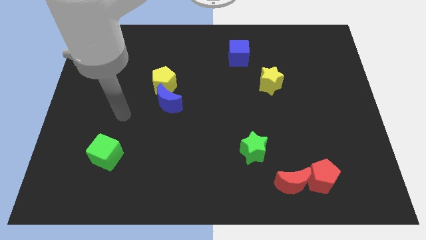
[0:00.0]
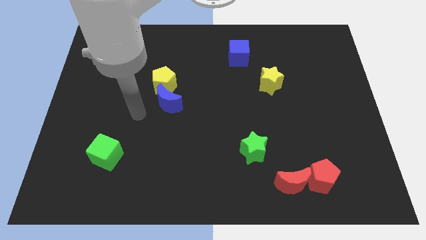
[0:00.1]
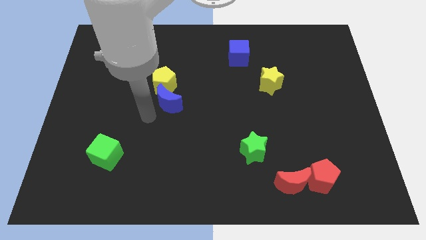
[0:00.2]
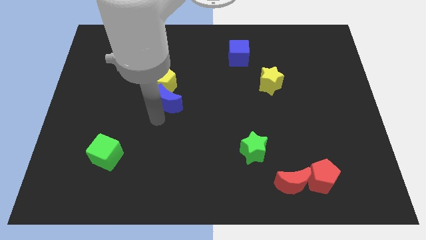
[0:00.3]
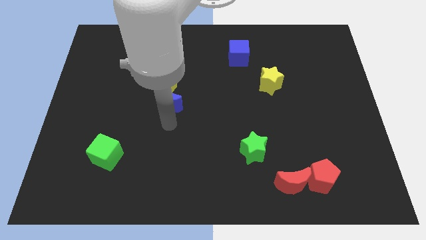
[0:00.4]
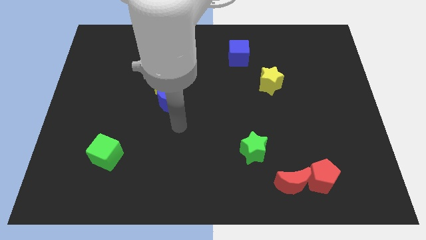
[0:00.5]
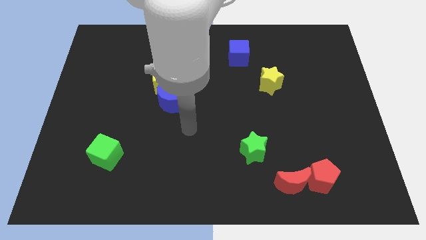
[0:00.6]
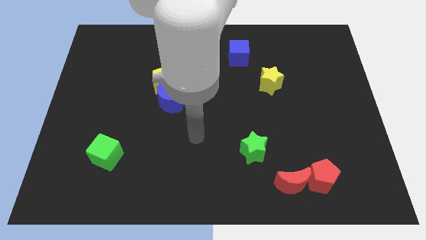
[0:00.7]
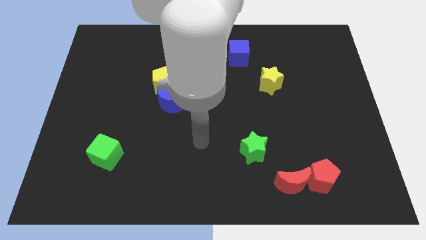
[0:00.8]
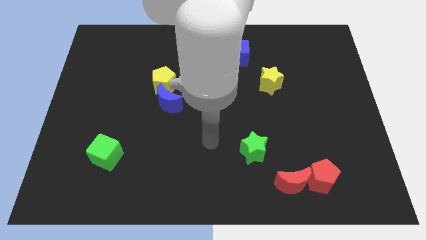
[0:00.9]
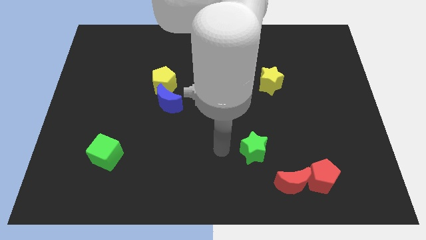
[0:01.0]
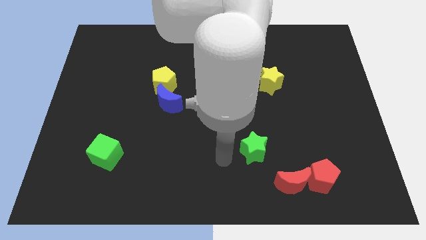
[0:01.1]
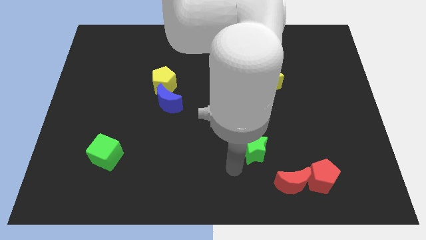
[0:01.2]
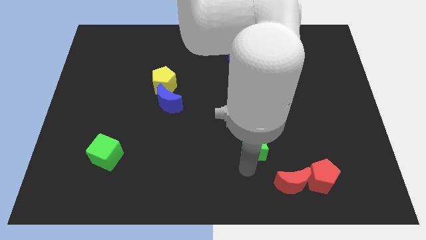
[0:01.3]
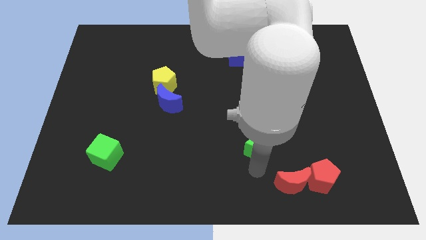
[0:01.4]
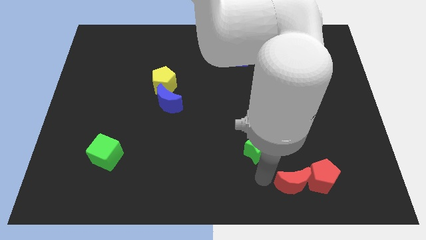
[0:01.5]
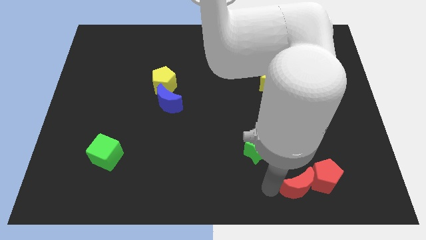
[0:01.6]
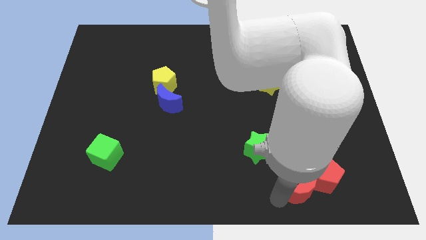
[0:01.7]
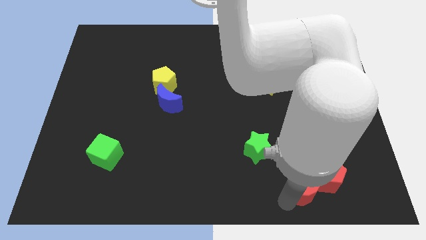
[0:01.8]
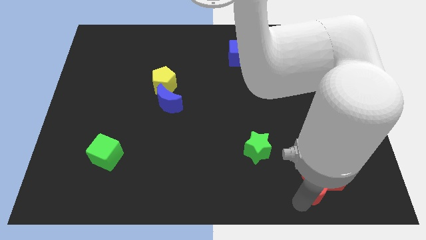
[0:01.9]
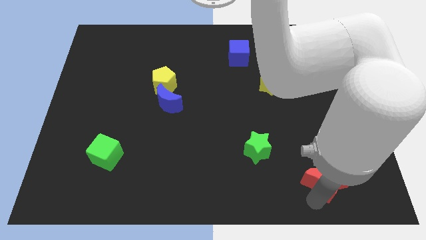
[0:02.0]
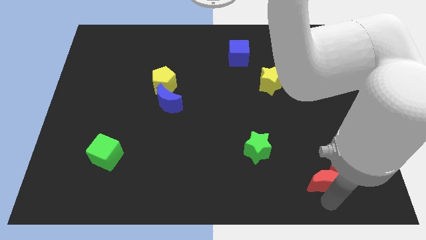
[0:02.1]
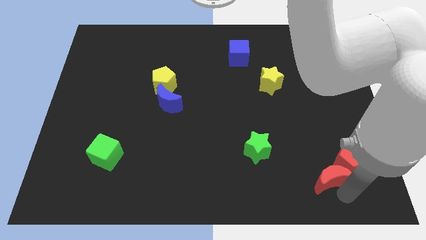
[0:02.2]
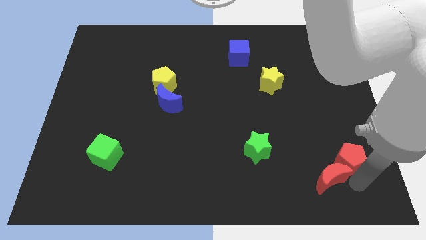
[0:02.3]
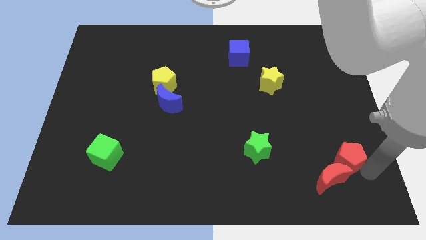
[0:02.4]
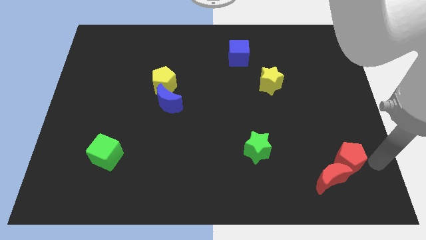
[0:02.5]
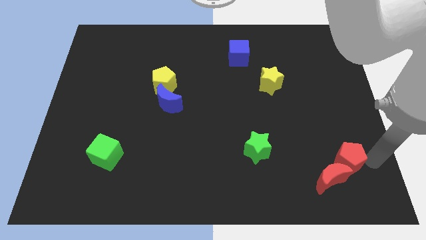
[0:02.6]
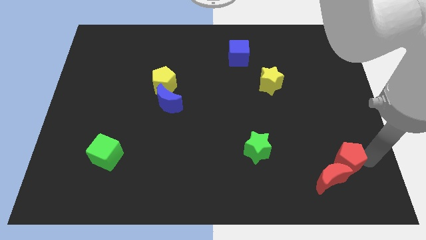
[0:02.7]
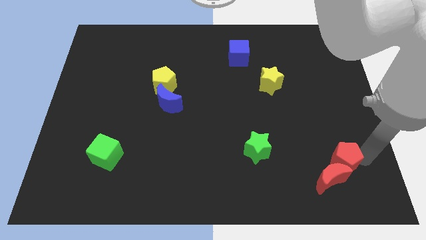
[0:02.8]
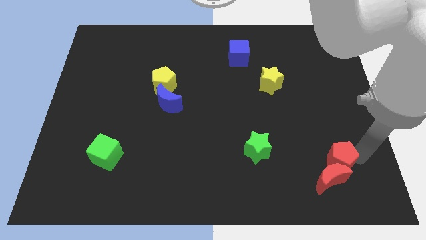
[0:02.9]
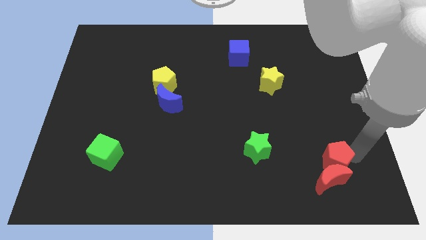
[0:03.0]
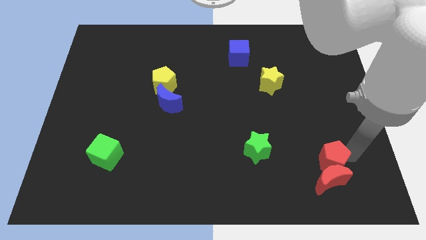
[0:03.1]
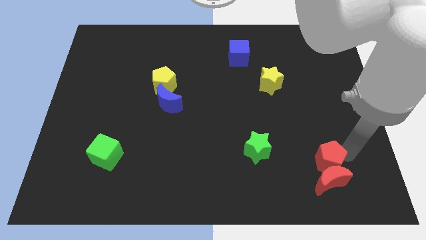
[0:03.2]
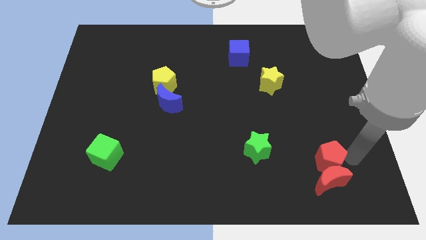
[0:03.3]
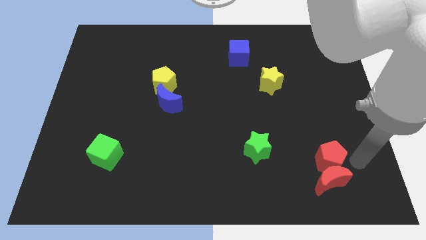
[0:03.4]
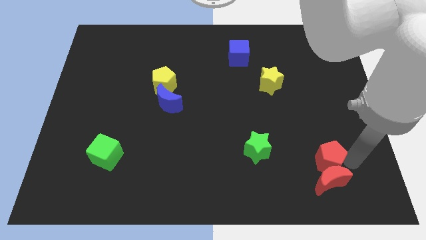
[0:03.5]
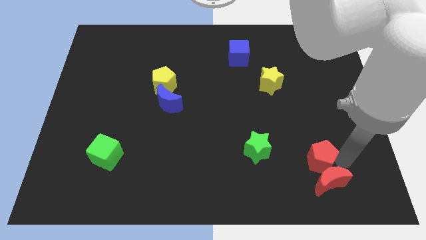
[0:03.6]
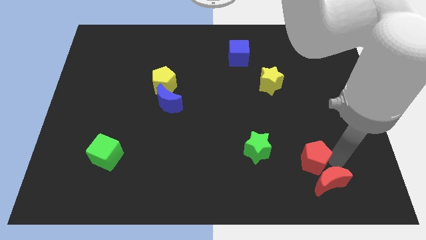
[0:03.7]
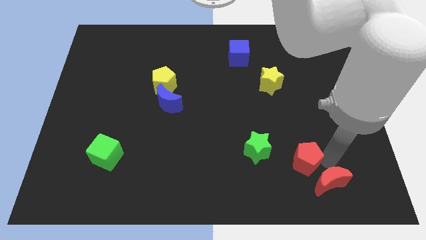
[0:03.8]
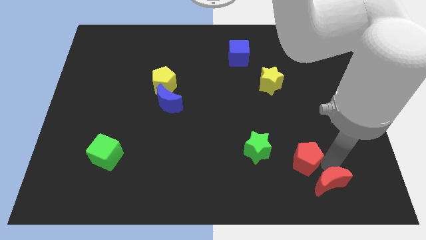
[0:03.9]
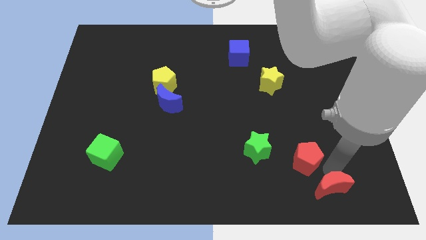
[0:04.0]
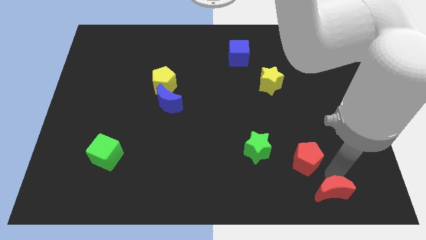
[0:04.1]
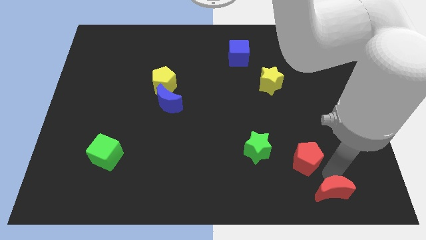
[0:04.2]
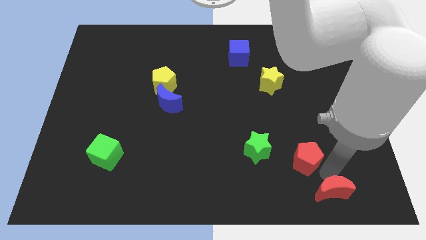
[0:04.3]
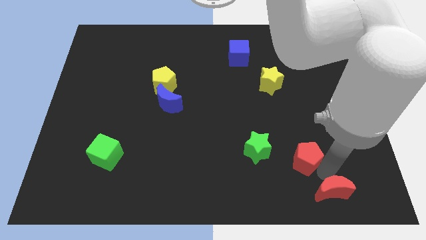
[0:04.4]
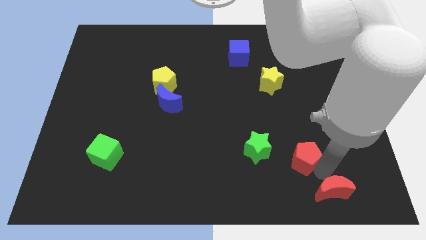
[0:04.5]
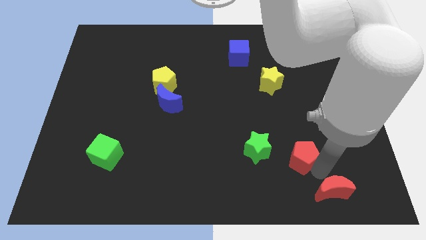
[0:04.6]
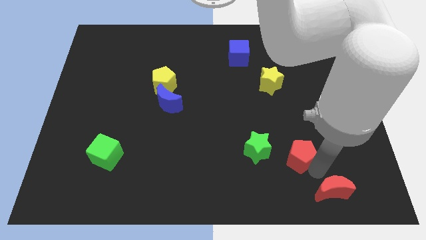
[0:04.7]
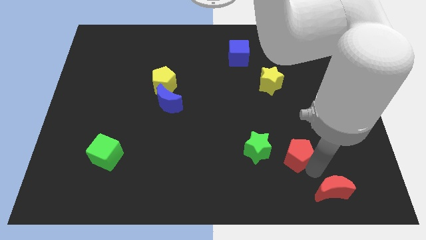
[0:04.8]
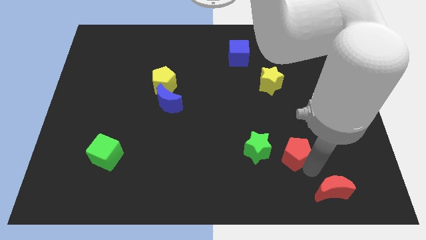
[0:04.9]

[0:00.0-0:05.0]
push the red pentagon somewhat upwards and left diagonally

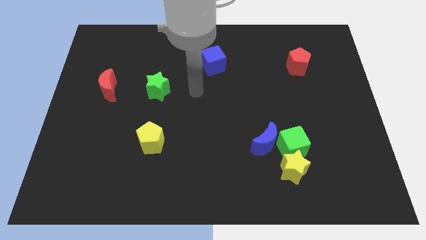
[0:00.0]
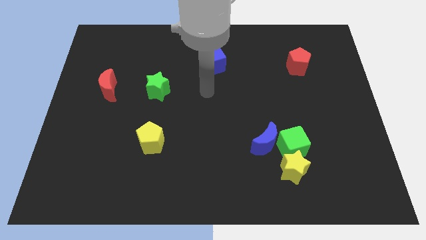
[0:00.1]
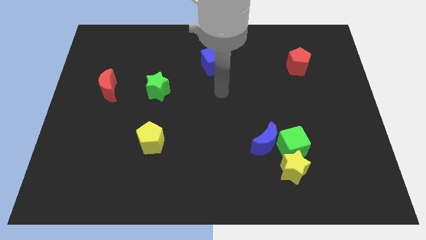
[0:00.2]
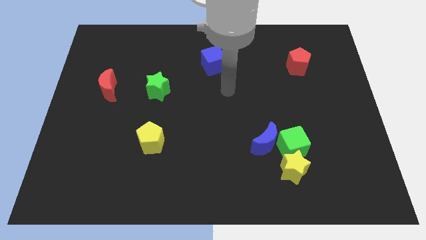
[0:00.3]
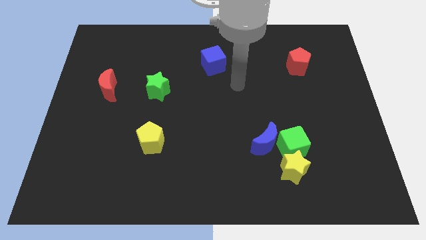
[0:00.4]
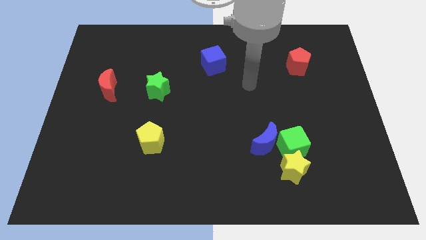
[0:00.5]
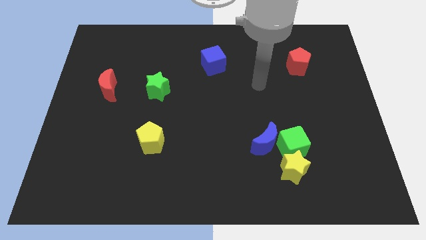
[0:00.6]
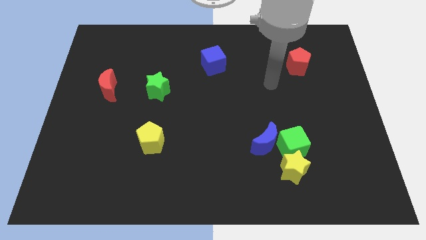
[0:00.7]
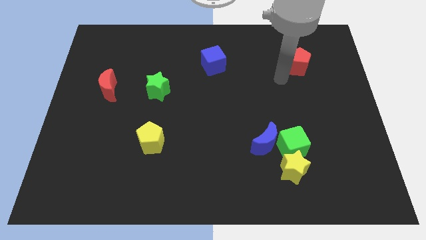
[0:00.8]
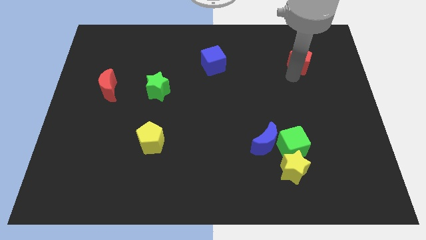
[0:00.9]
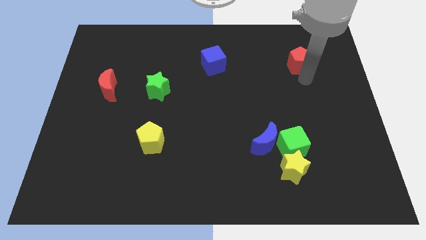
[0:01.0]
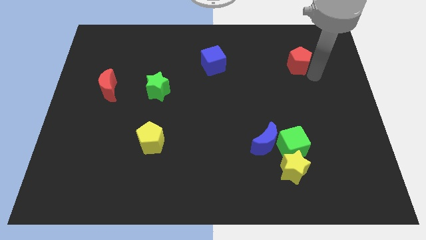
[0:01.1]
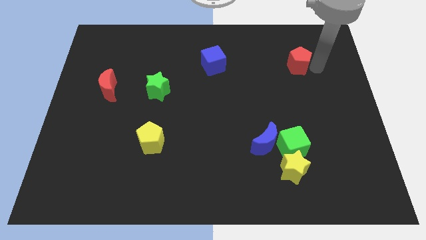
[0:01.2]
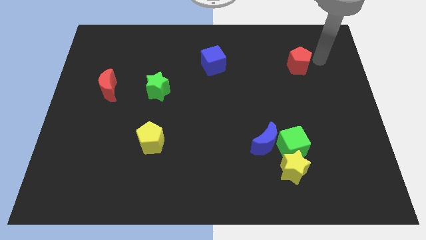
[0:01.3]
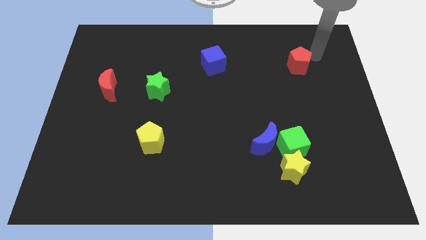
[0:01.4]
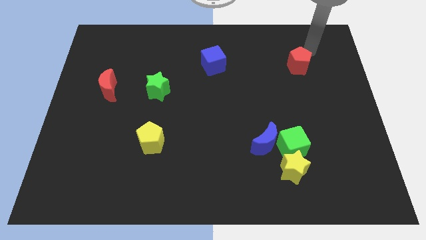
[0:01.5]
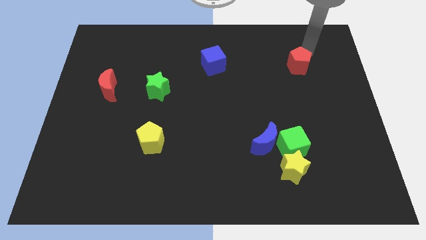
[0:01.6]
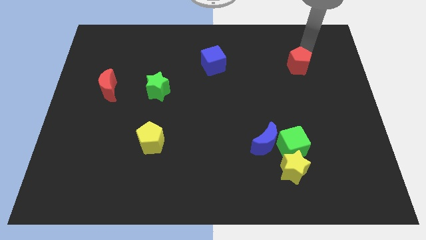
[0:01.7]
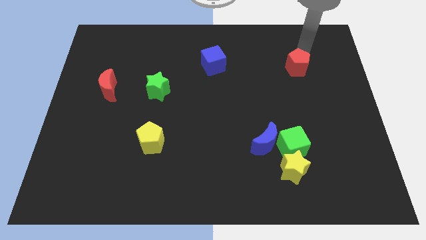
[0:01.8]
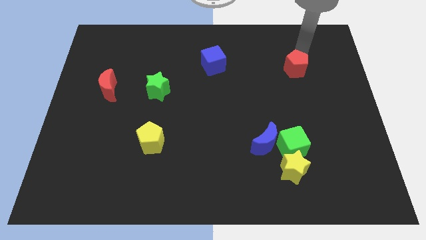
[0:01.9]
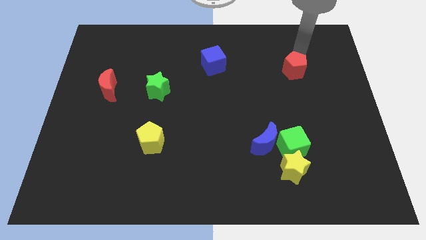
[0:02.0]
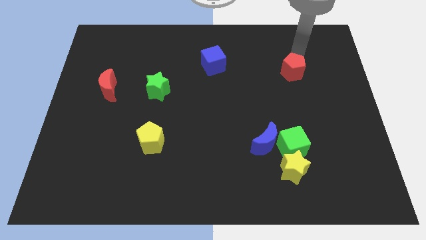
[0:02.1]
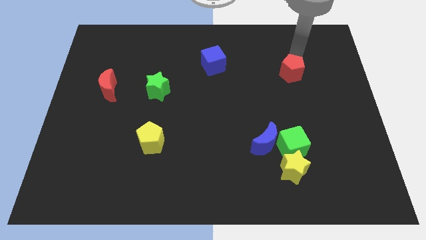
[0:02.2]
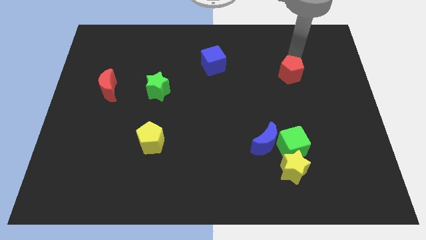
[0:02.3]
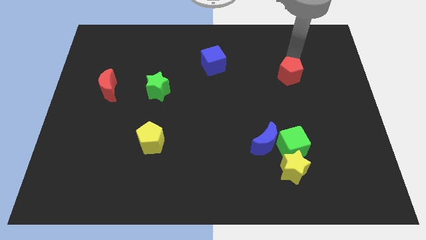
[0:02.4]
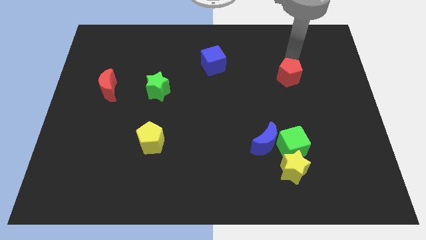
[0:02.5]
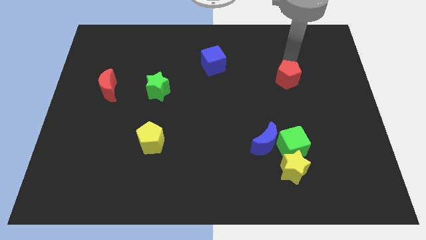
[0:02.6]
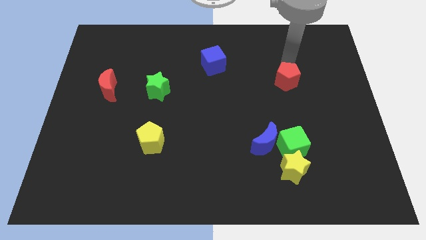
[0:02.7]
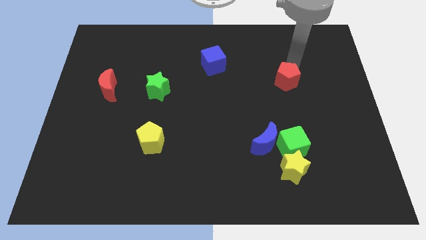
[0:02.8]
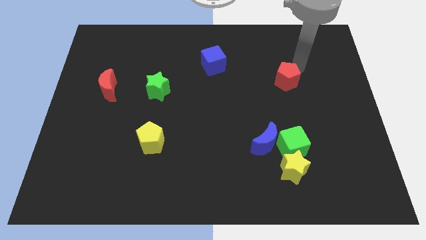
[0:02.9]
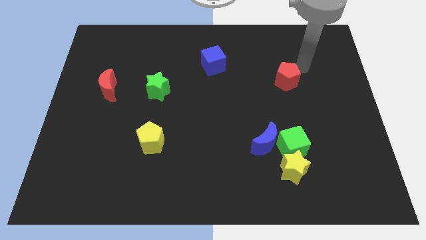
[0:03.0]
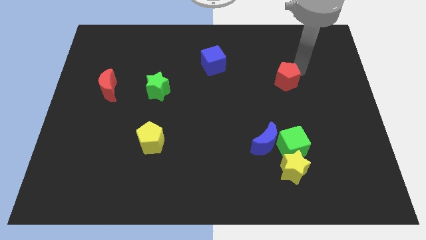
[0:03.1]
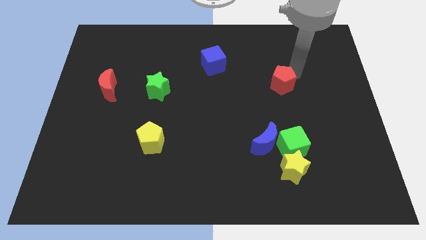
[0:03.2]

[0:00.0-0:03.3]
push the red pentagon diagonally downwards and left a bit

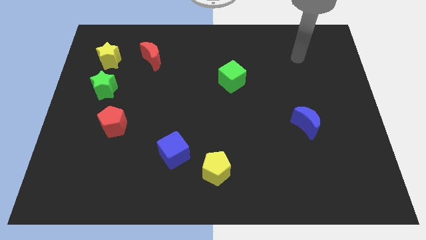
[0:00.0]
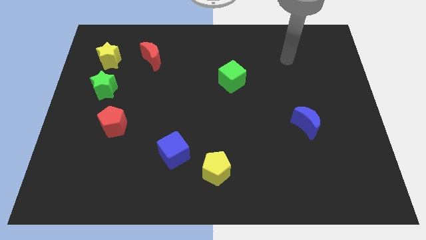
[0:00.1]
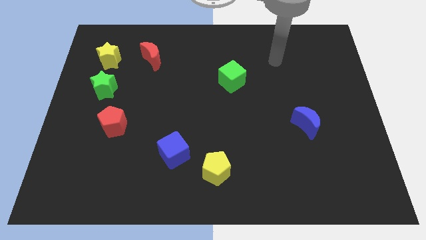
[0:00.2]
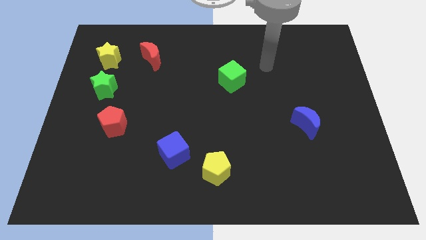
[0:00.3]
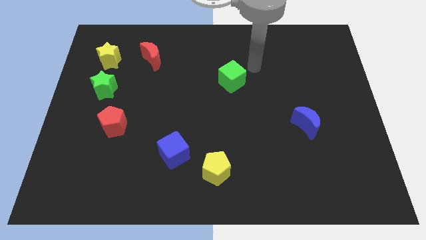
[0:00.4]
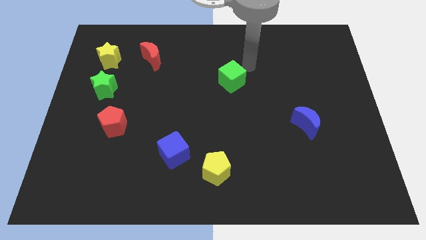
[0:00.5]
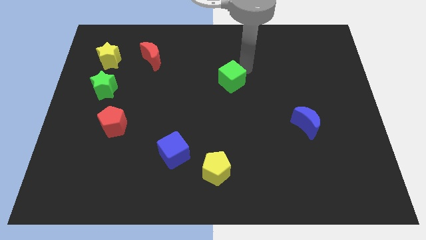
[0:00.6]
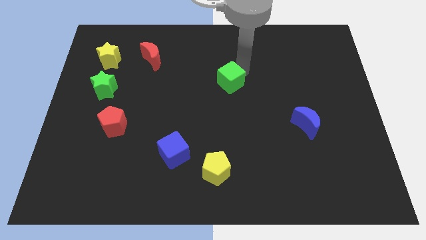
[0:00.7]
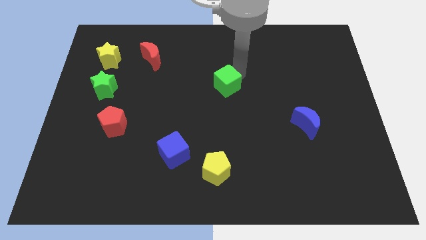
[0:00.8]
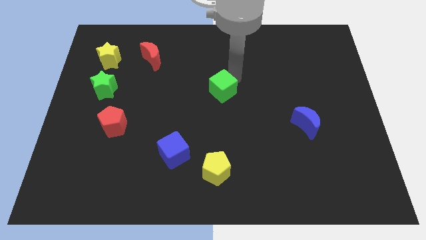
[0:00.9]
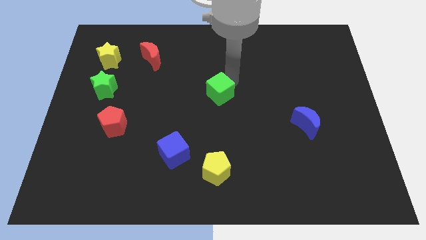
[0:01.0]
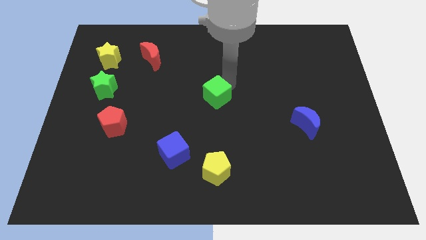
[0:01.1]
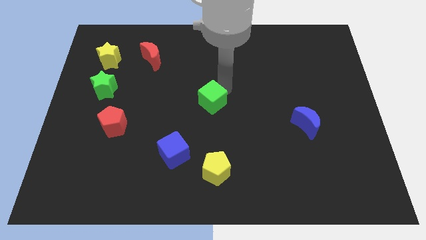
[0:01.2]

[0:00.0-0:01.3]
slightly push the green cube down and left
